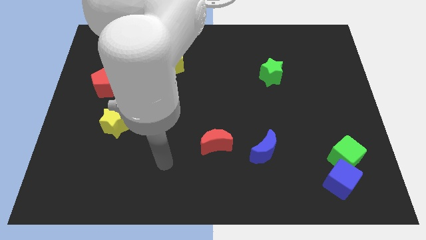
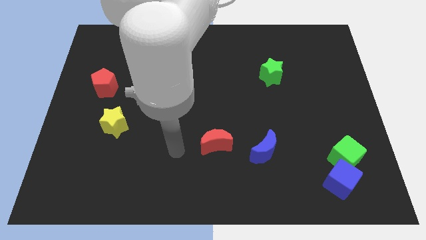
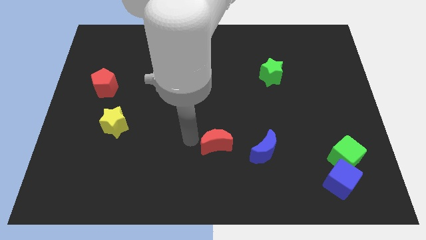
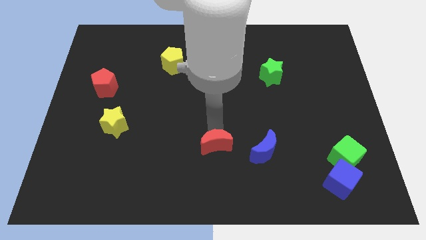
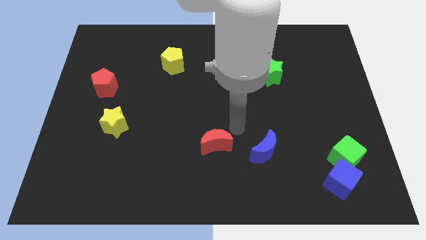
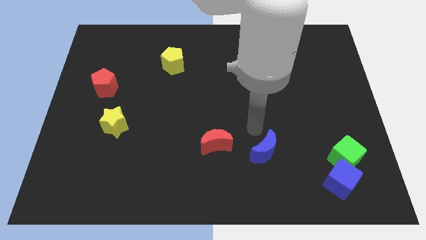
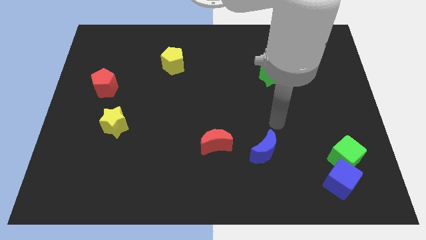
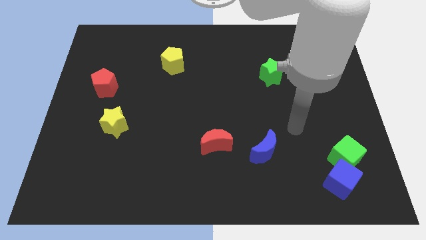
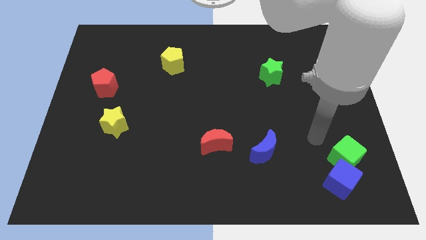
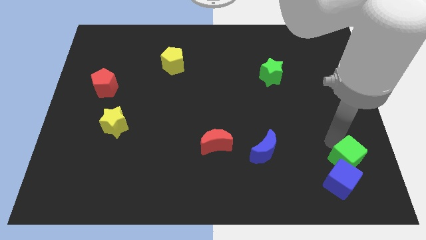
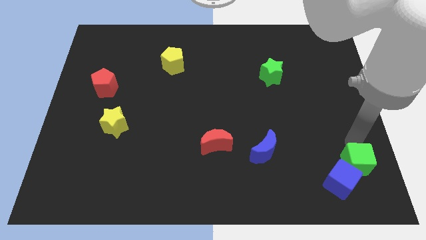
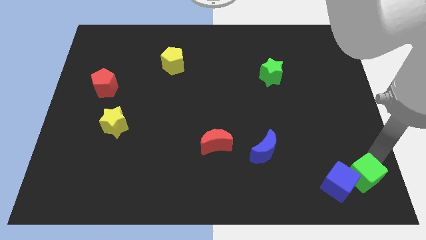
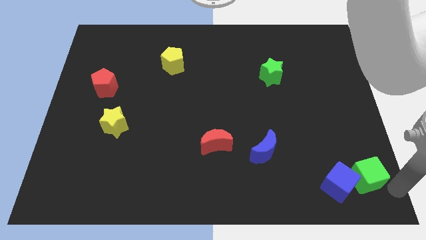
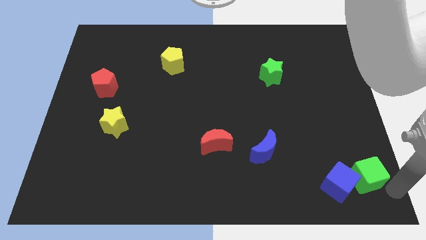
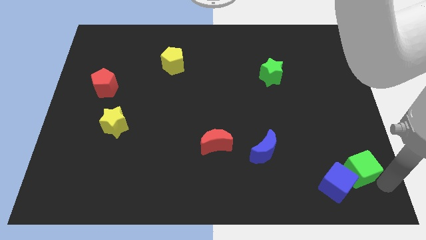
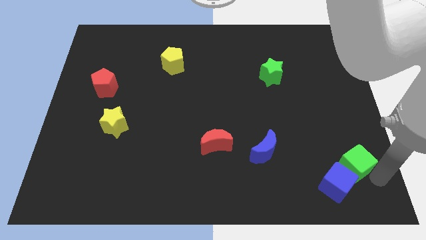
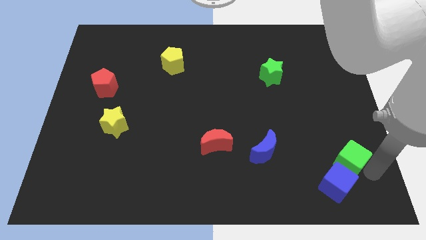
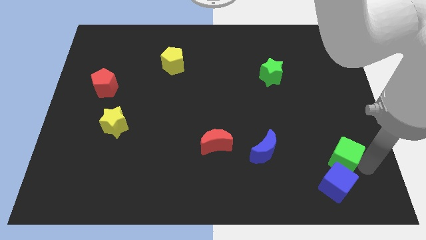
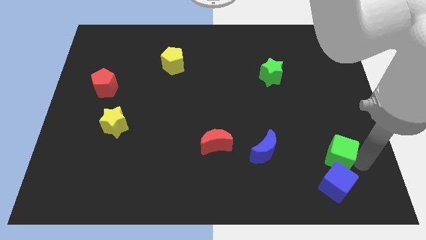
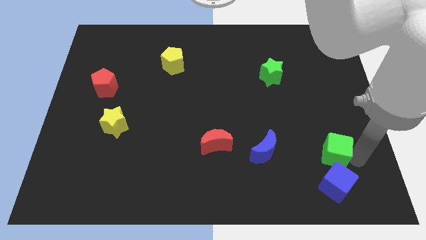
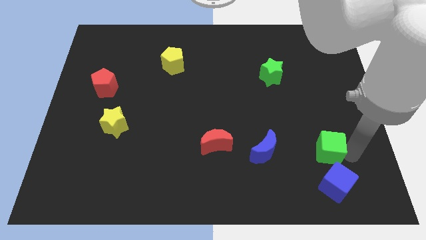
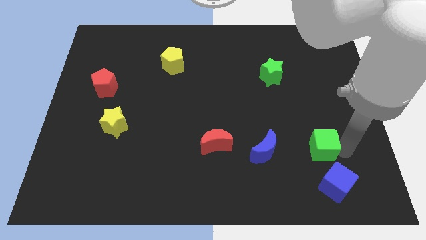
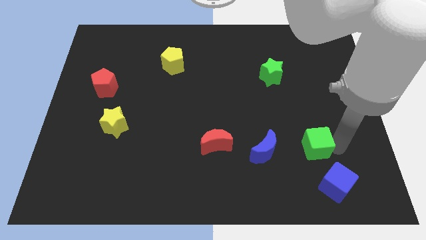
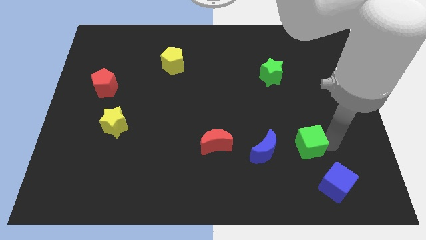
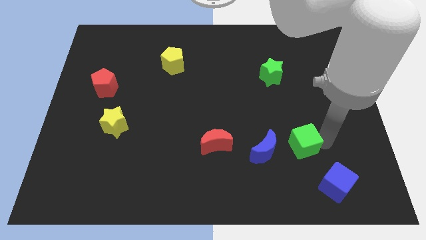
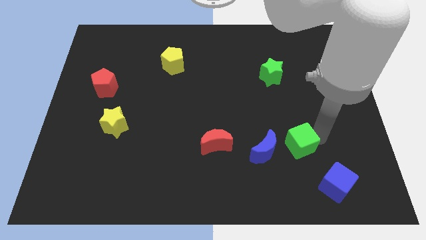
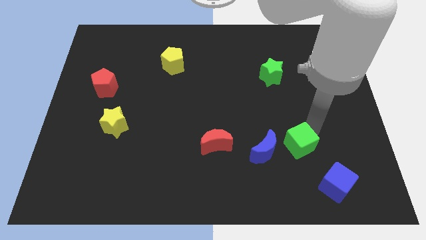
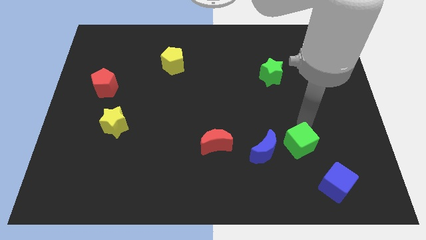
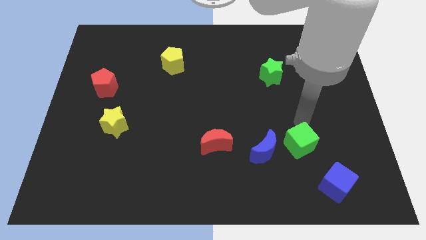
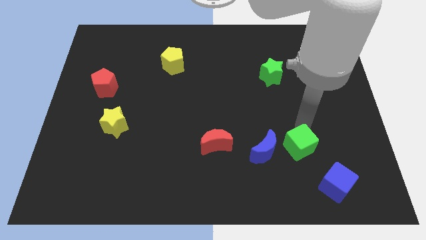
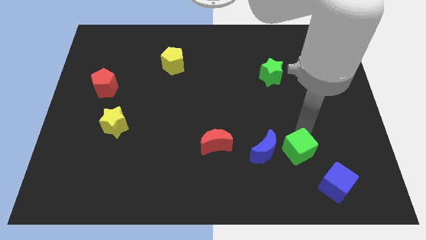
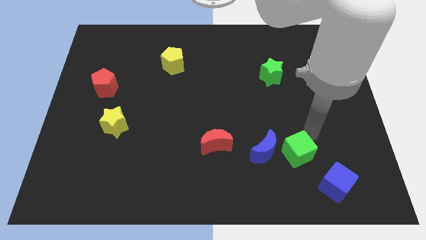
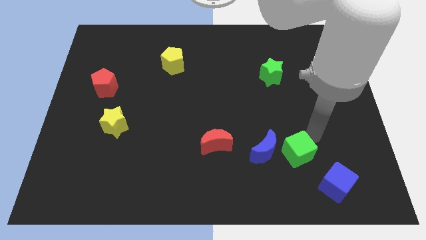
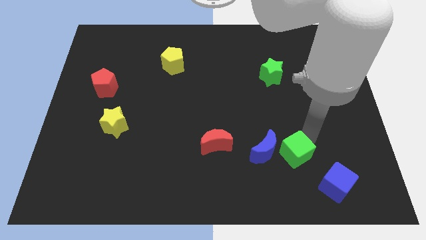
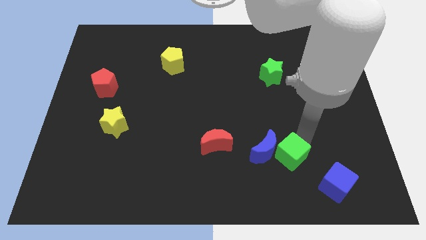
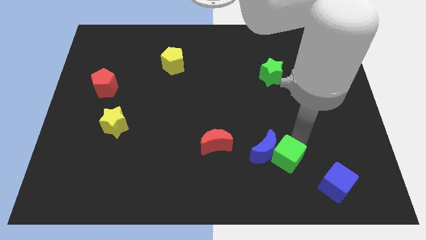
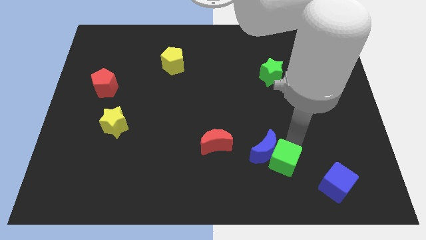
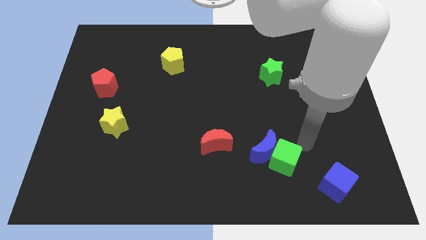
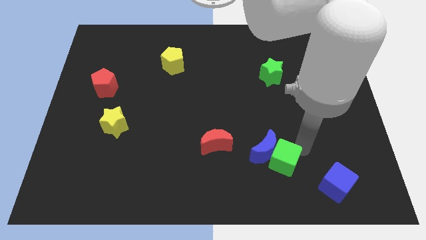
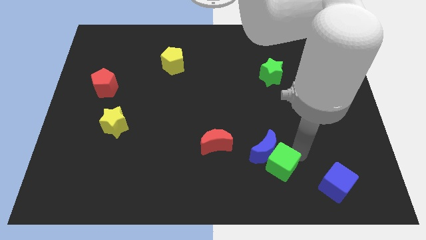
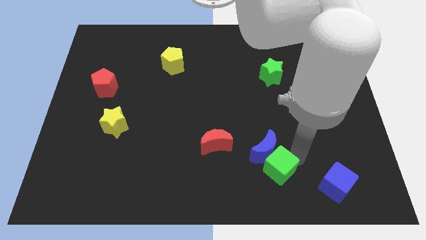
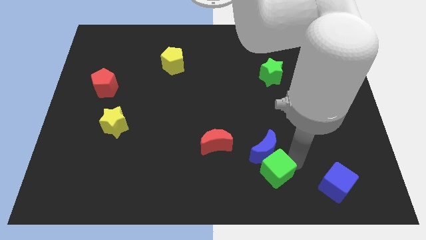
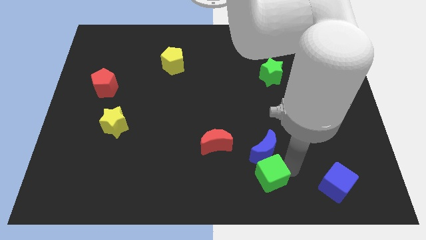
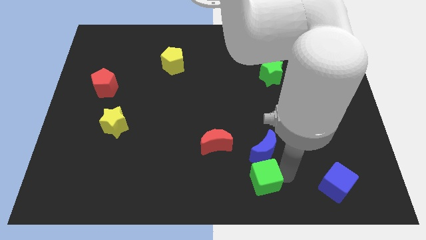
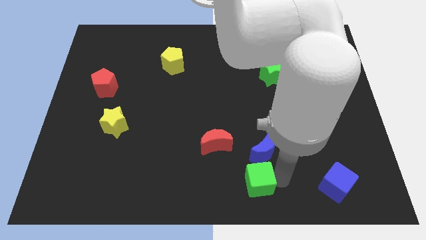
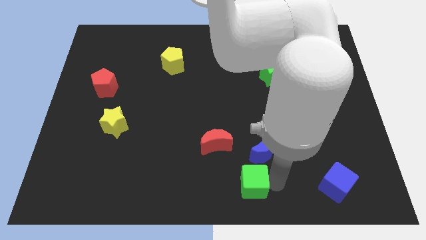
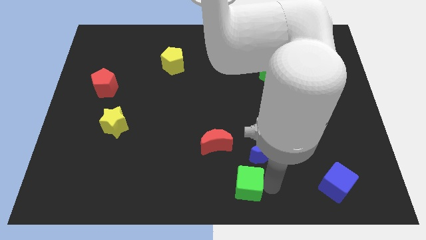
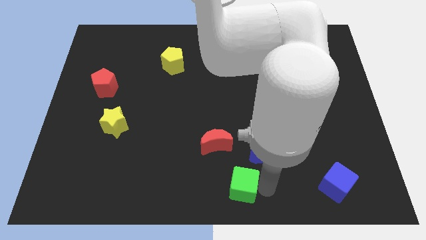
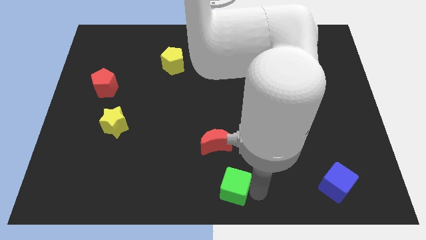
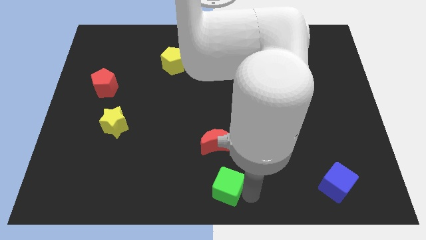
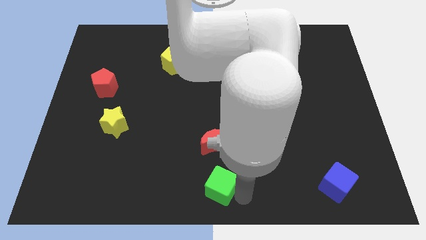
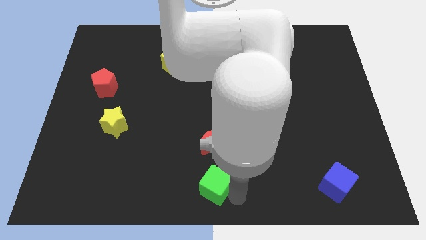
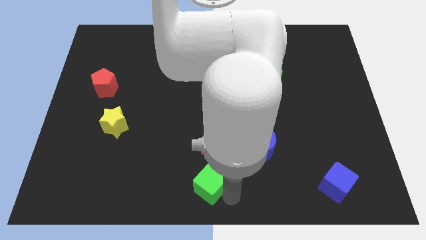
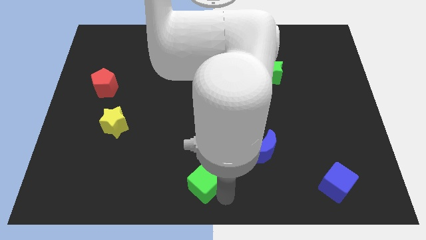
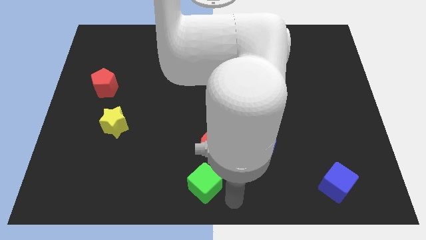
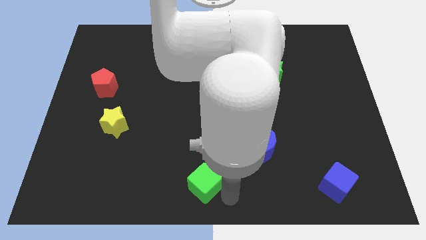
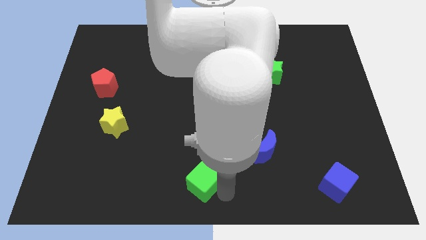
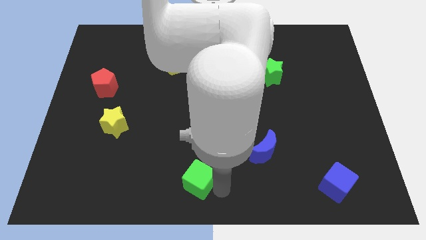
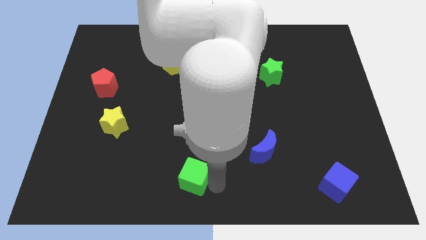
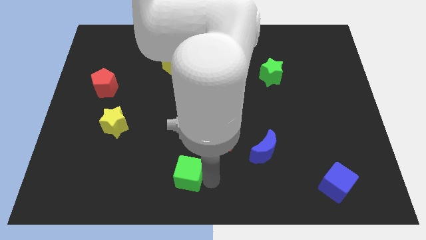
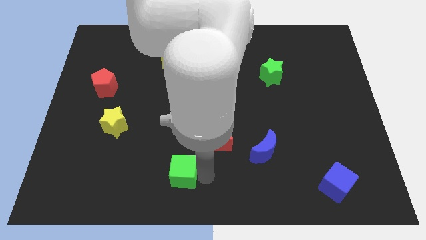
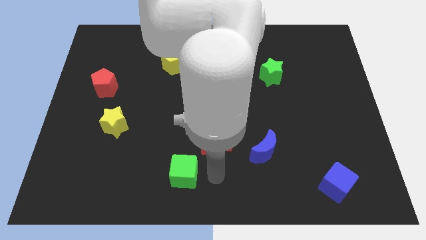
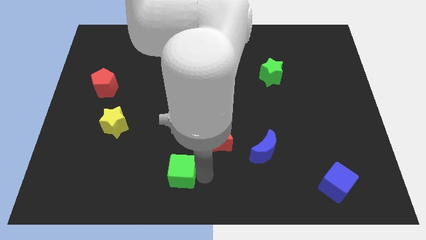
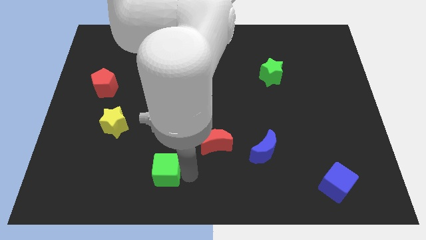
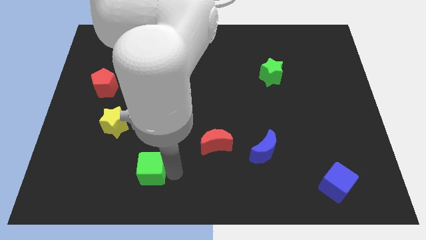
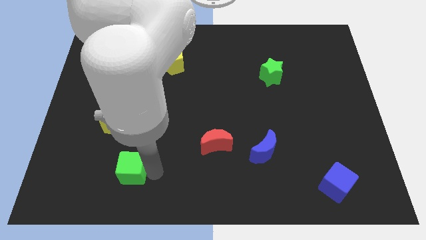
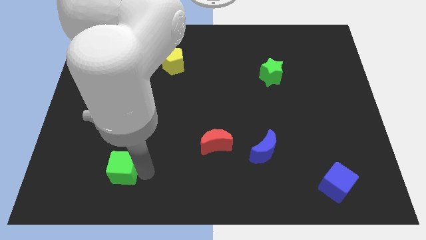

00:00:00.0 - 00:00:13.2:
move the green cube below the yellow star

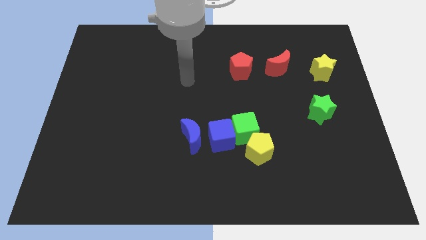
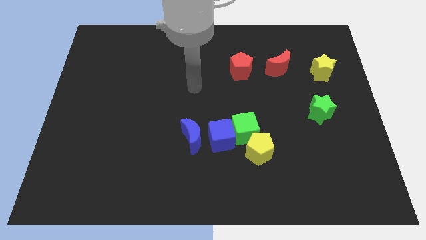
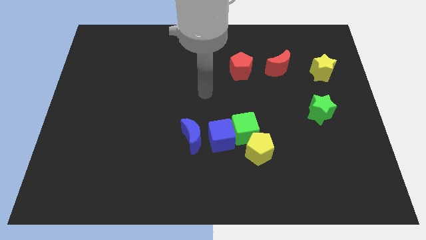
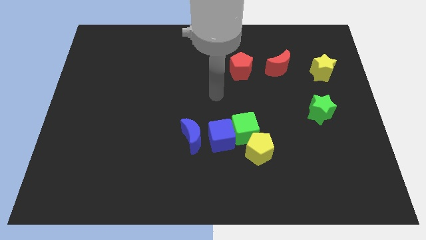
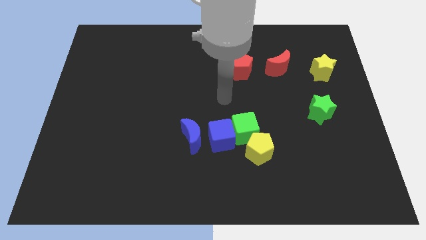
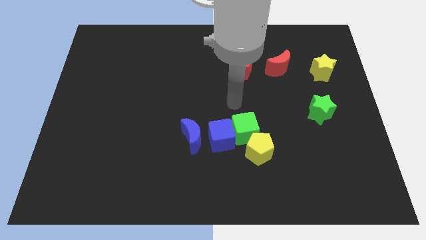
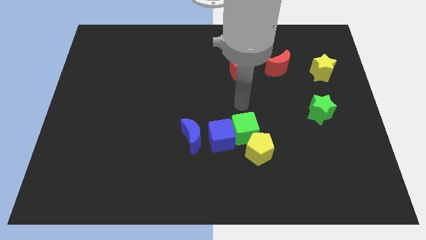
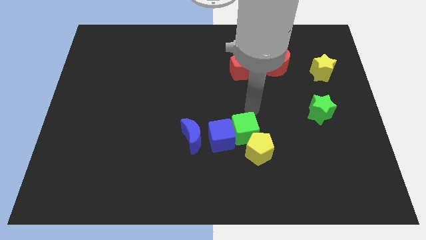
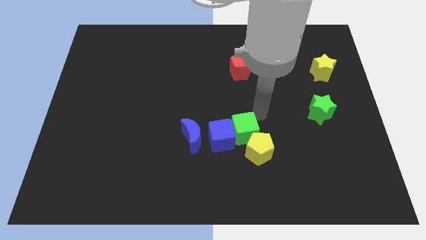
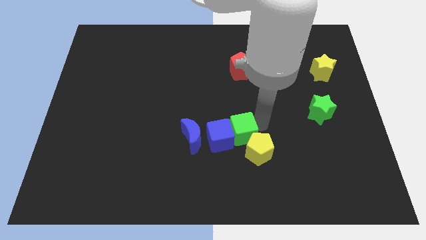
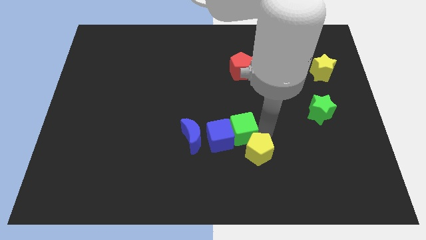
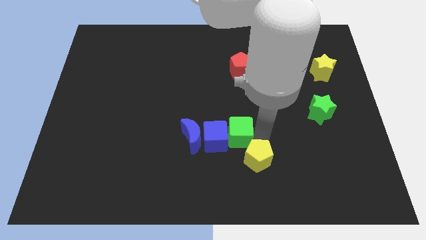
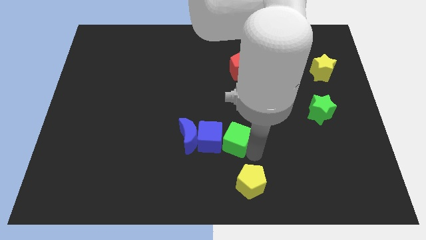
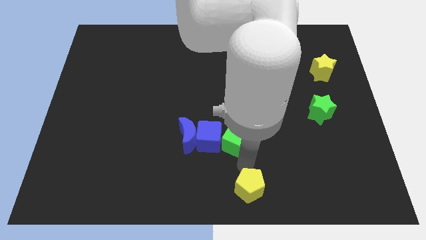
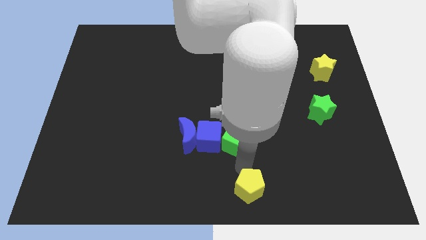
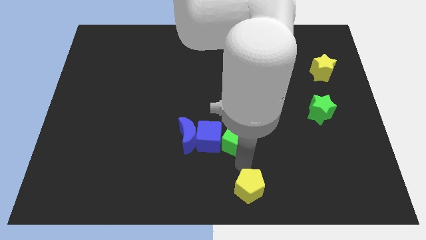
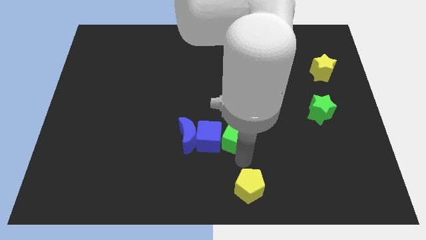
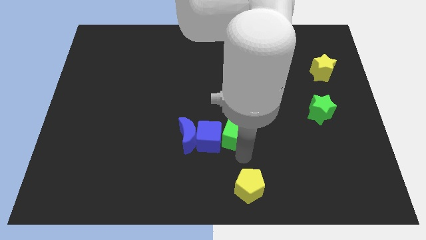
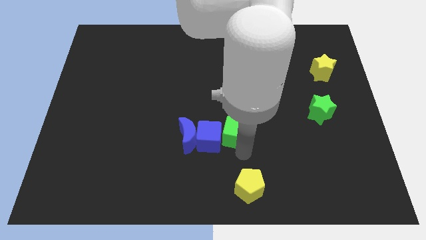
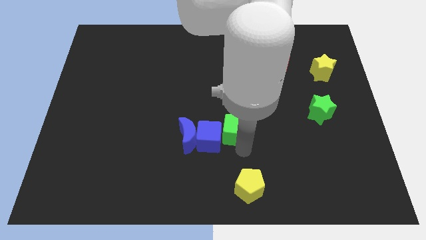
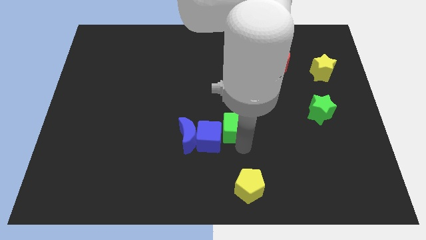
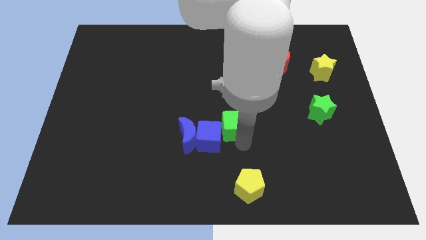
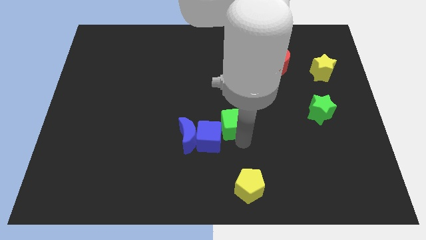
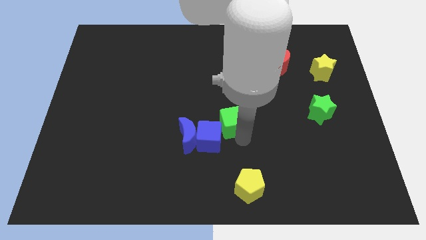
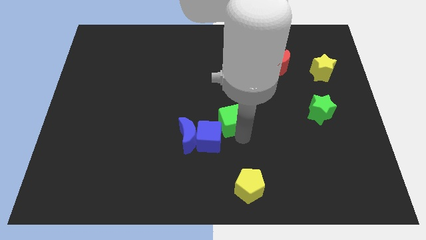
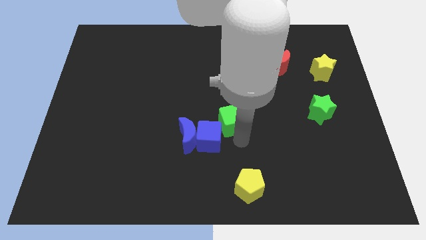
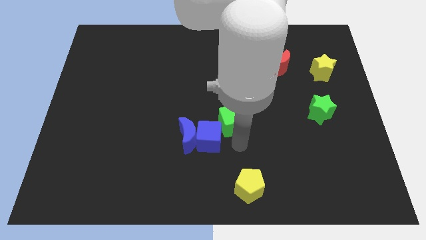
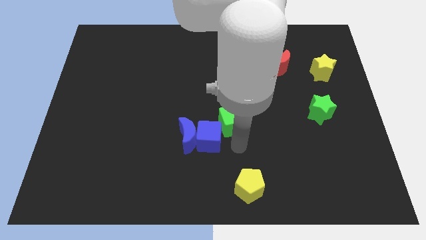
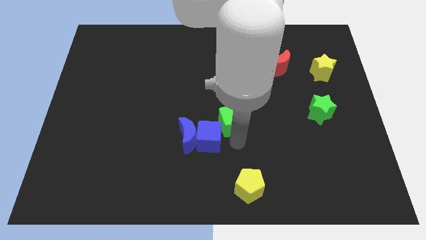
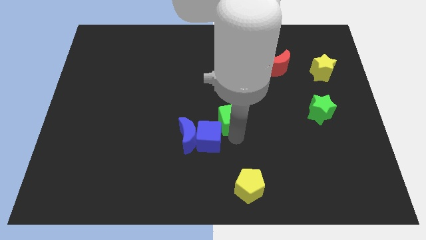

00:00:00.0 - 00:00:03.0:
push the green cube to the top side of the blue cube
